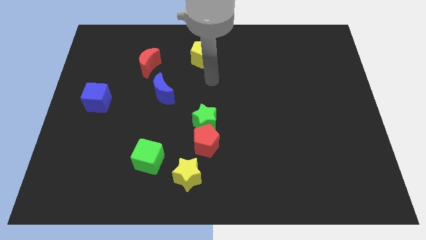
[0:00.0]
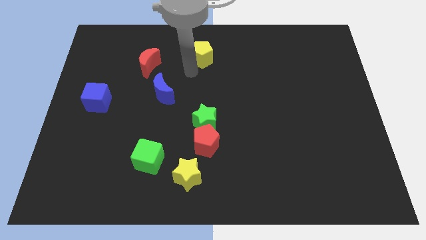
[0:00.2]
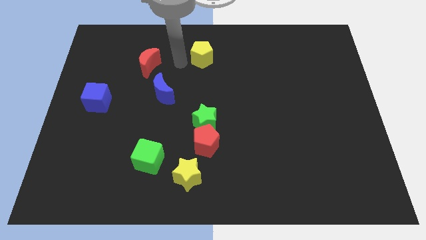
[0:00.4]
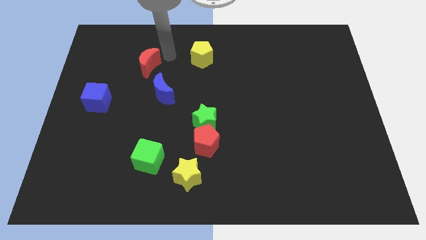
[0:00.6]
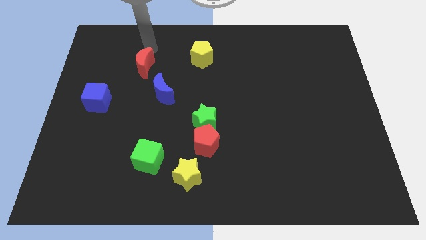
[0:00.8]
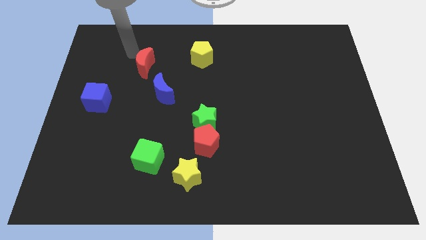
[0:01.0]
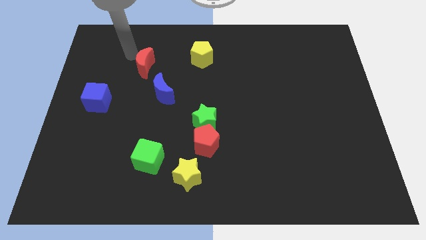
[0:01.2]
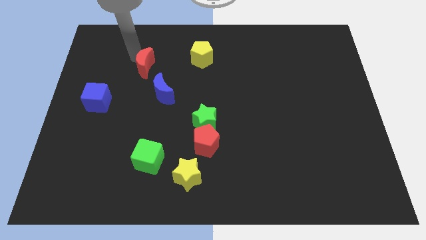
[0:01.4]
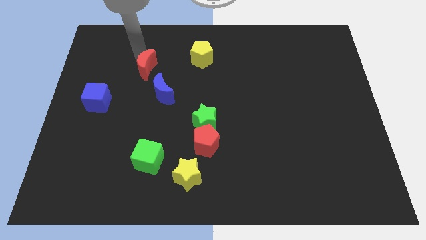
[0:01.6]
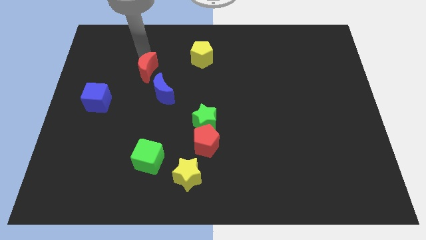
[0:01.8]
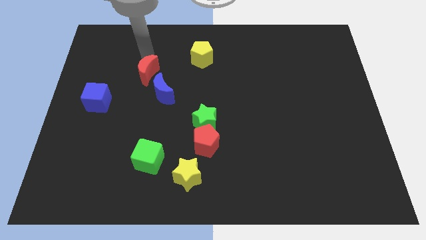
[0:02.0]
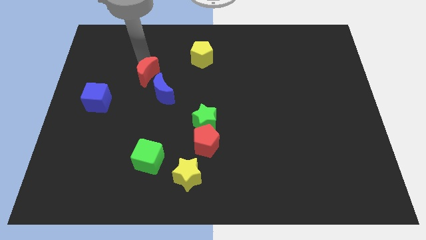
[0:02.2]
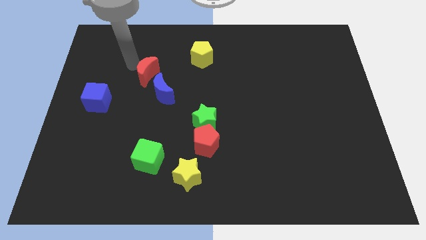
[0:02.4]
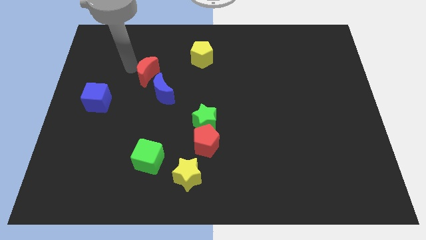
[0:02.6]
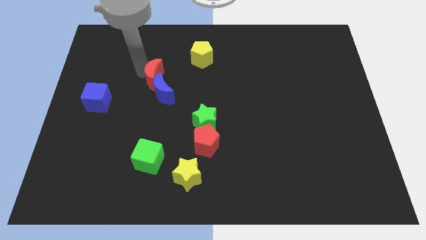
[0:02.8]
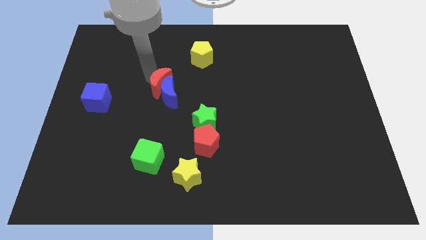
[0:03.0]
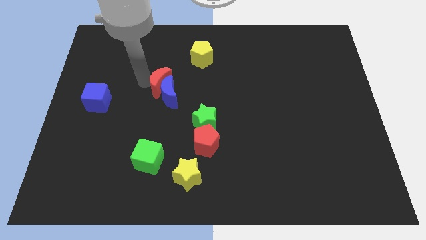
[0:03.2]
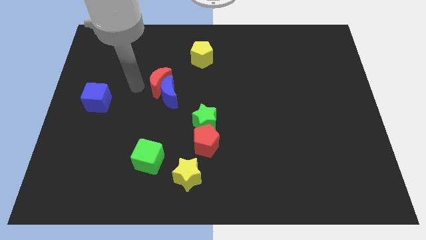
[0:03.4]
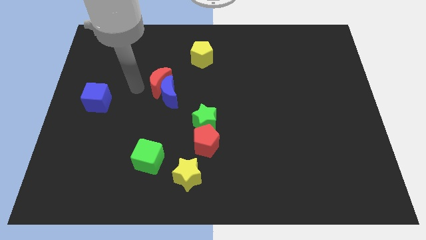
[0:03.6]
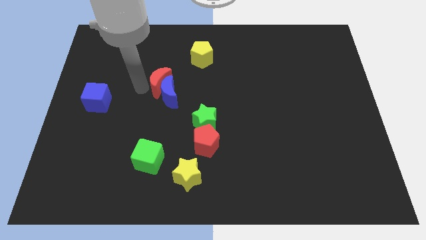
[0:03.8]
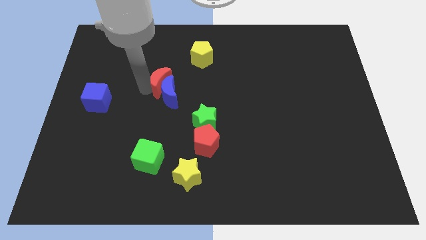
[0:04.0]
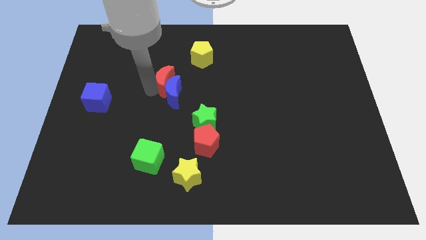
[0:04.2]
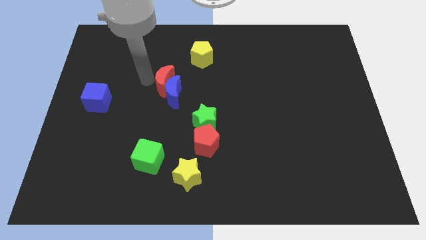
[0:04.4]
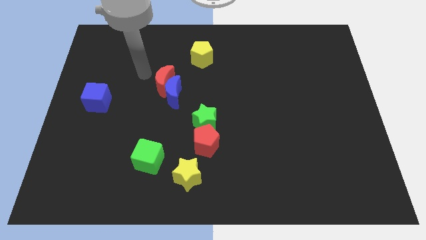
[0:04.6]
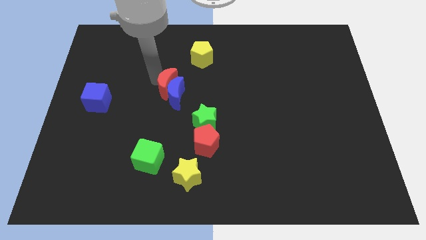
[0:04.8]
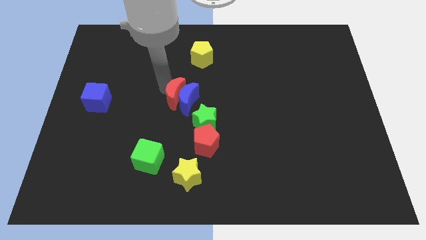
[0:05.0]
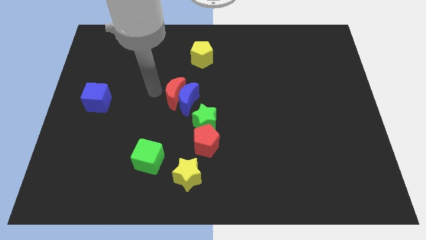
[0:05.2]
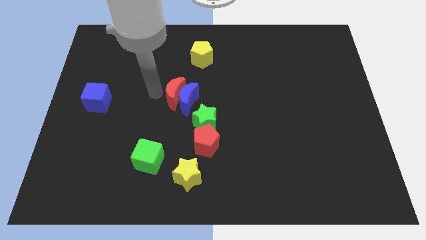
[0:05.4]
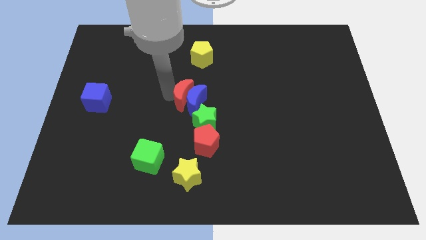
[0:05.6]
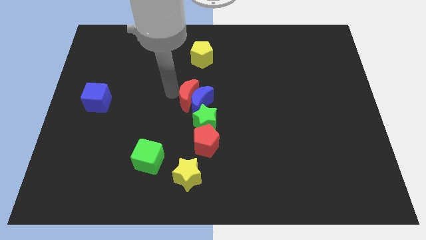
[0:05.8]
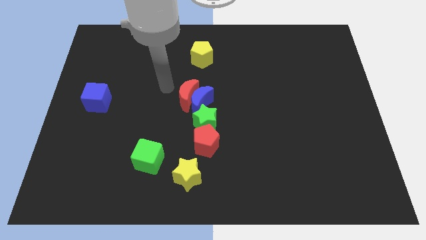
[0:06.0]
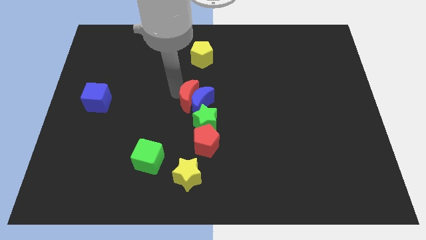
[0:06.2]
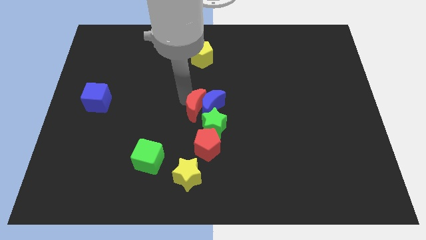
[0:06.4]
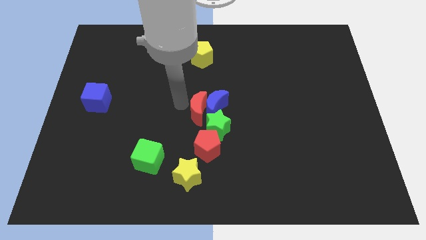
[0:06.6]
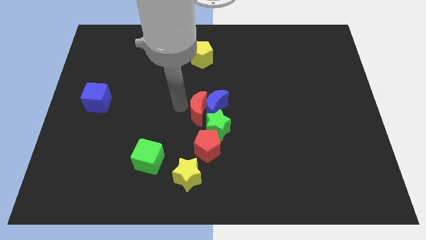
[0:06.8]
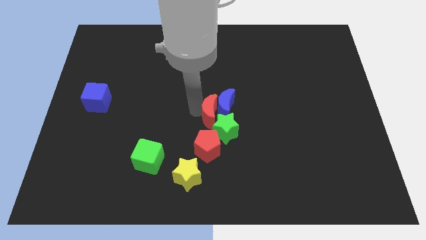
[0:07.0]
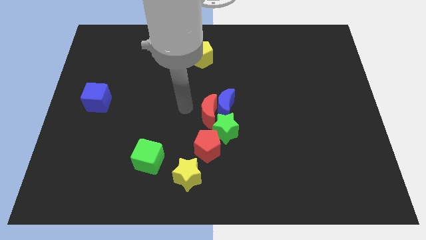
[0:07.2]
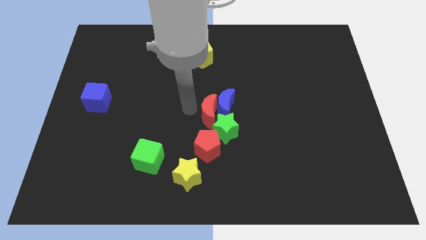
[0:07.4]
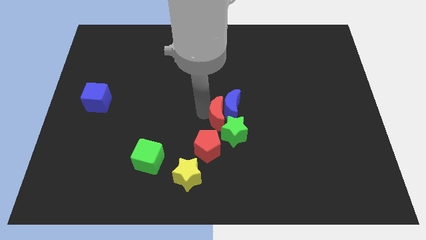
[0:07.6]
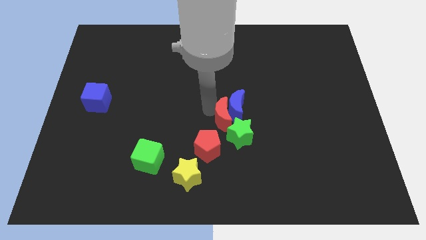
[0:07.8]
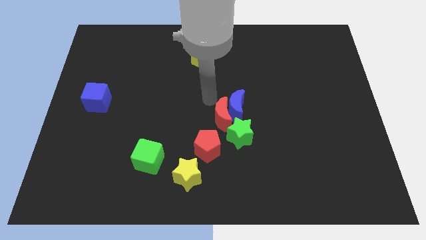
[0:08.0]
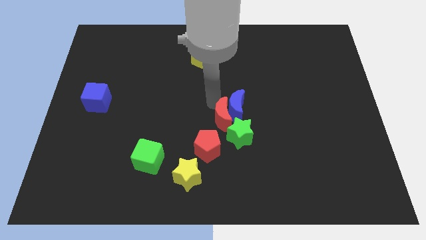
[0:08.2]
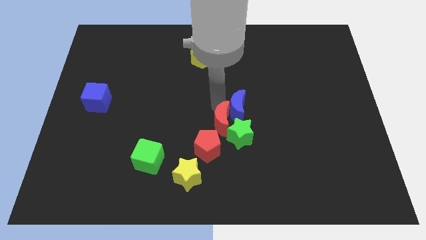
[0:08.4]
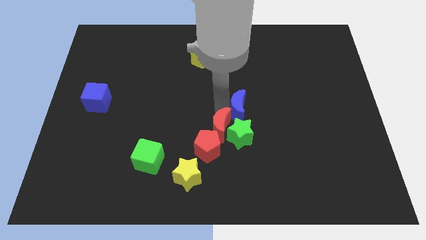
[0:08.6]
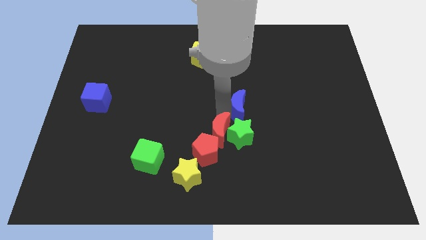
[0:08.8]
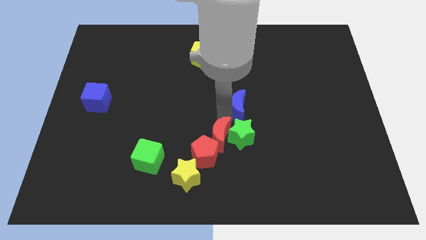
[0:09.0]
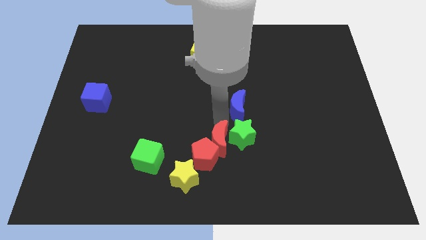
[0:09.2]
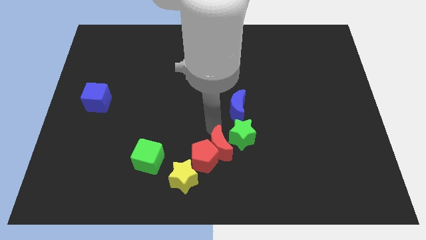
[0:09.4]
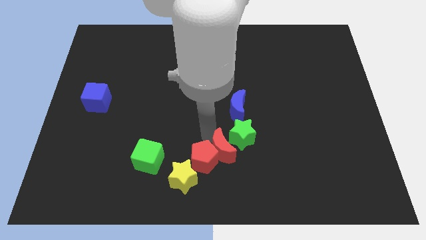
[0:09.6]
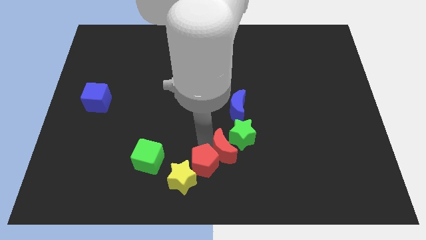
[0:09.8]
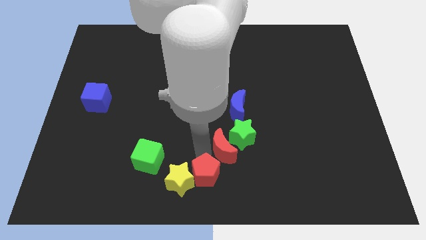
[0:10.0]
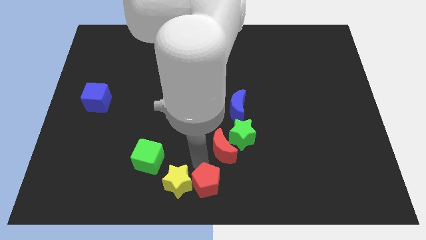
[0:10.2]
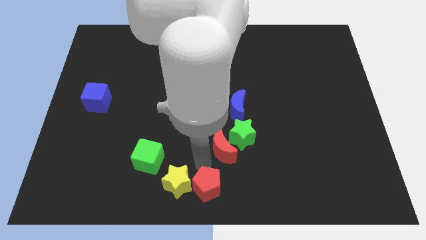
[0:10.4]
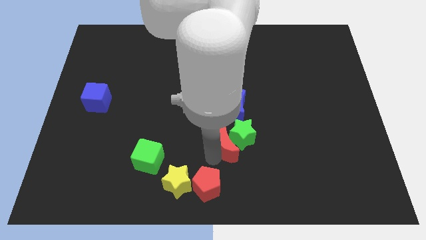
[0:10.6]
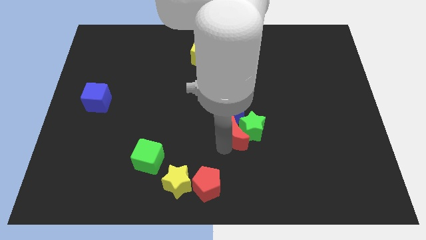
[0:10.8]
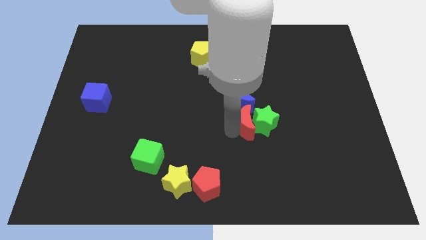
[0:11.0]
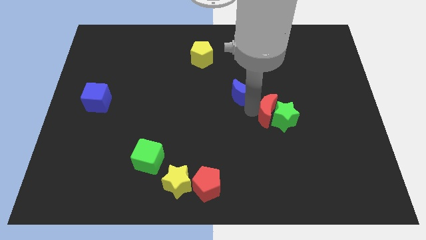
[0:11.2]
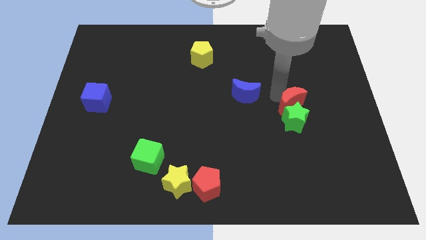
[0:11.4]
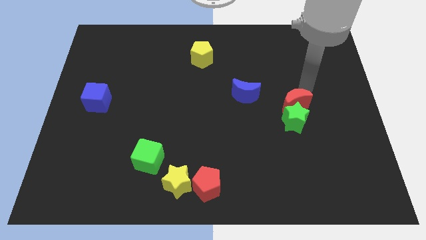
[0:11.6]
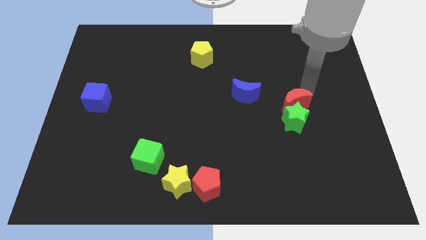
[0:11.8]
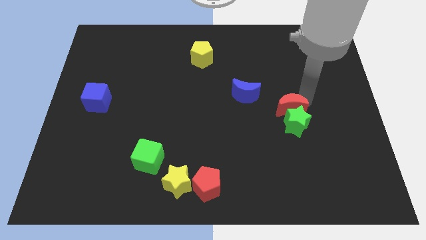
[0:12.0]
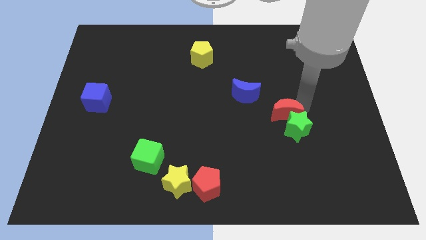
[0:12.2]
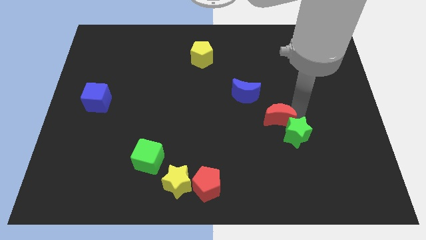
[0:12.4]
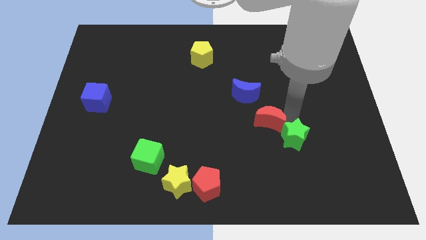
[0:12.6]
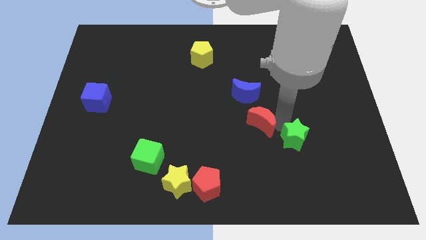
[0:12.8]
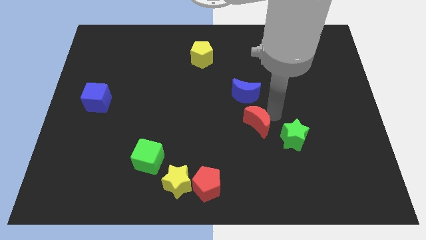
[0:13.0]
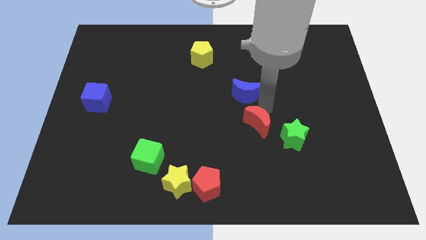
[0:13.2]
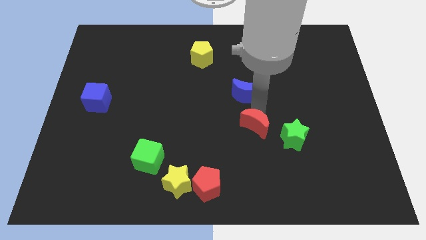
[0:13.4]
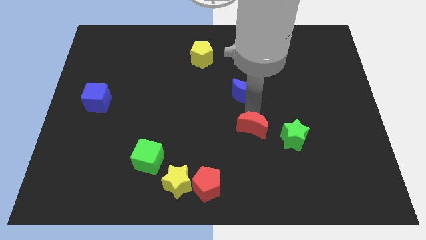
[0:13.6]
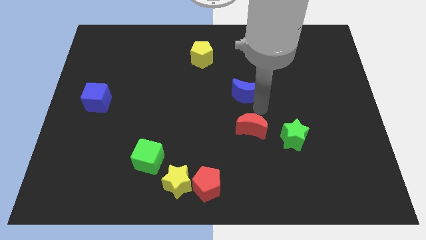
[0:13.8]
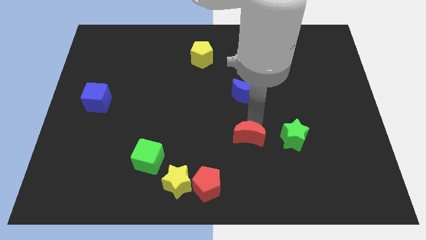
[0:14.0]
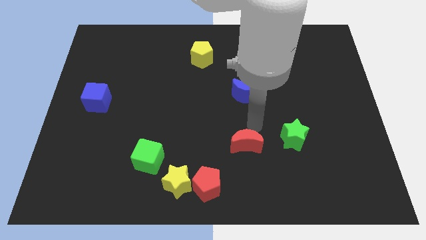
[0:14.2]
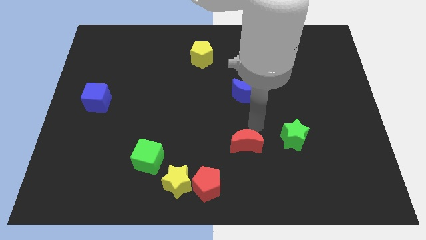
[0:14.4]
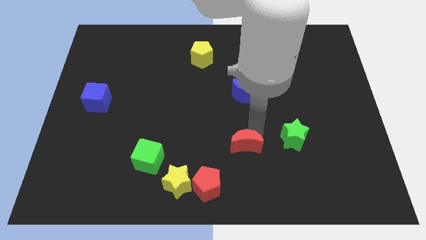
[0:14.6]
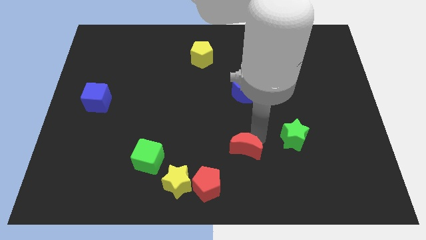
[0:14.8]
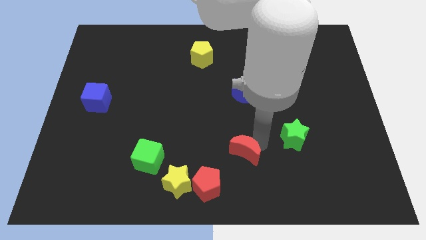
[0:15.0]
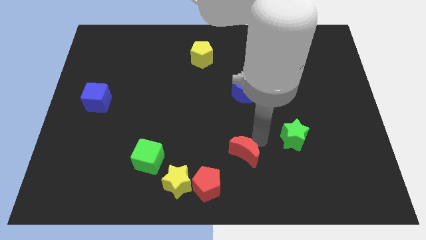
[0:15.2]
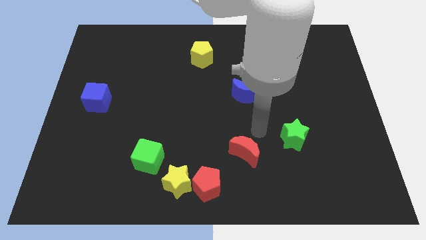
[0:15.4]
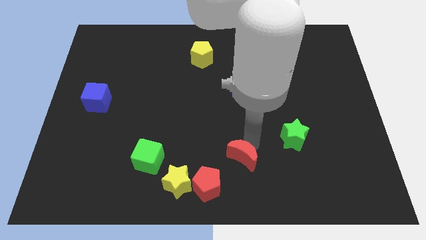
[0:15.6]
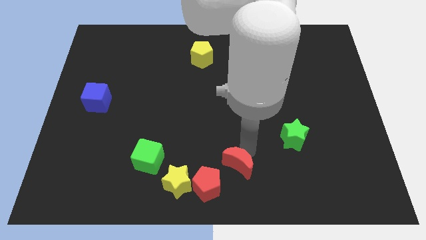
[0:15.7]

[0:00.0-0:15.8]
put the red moon to the right side of the yellow star
